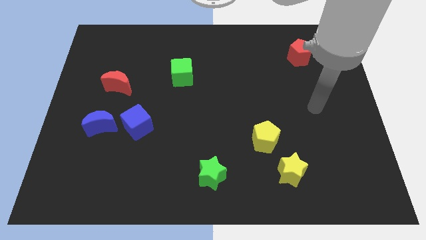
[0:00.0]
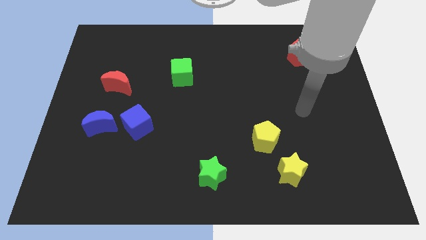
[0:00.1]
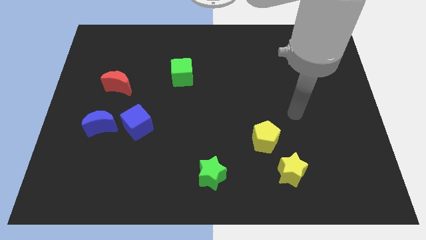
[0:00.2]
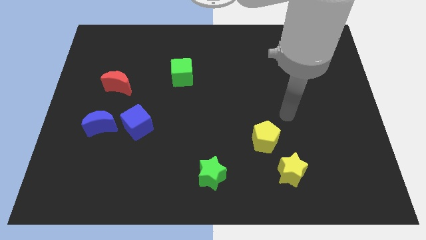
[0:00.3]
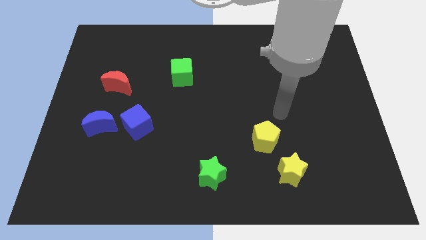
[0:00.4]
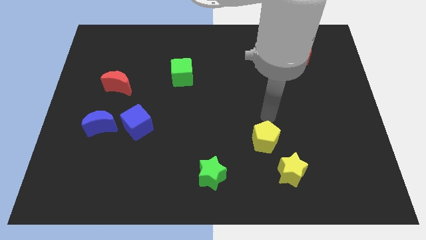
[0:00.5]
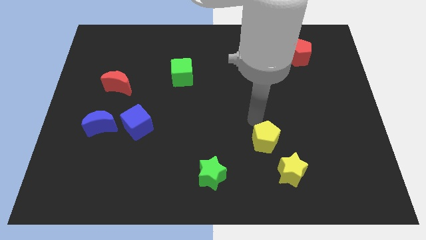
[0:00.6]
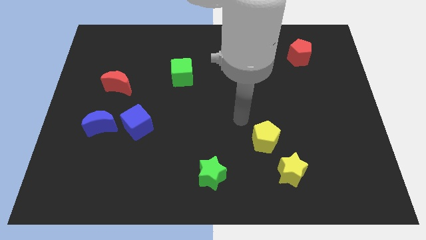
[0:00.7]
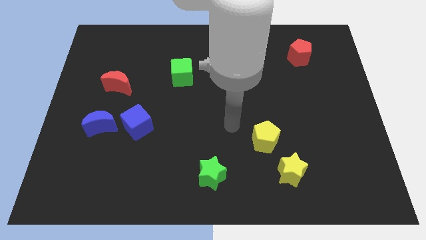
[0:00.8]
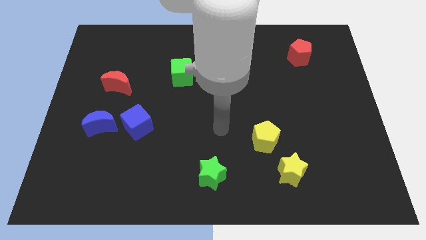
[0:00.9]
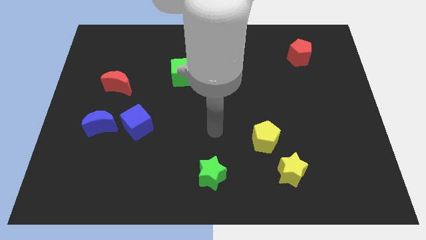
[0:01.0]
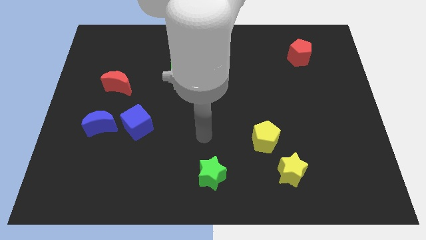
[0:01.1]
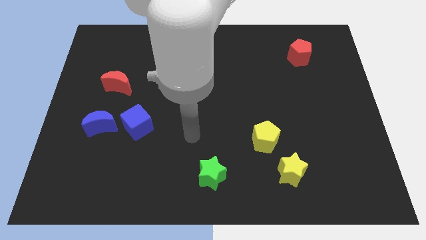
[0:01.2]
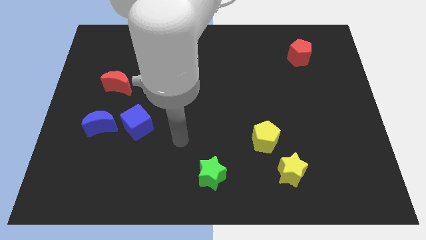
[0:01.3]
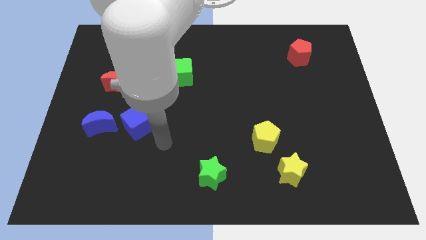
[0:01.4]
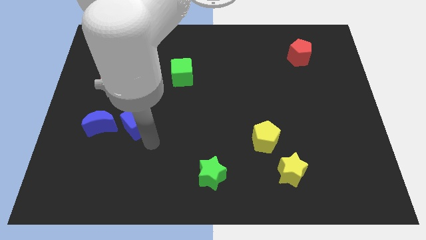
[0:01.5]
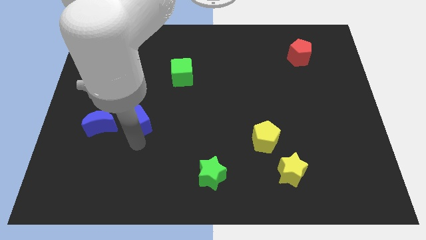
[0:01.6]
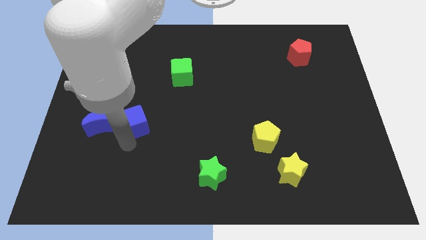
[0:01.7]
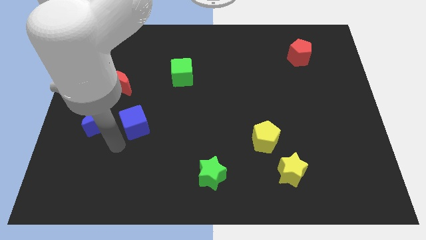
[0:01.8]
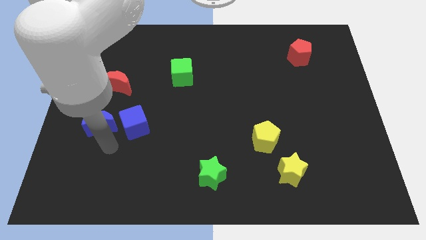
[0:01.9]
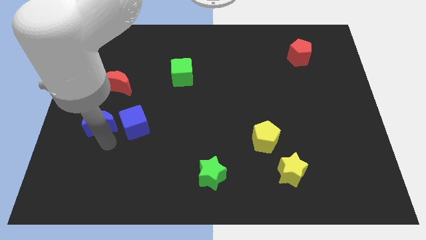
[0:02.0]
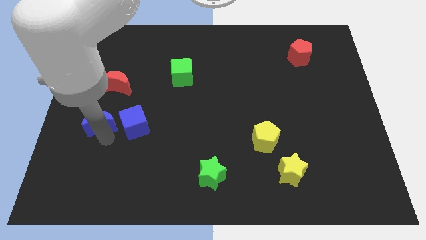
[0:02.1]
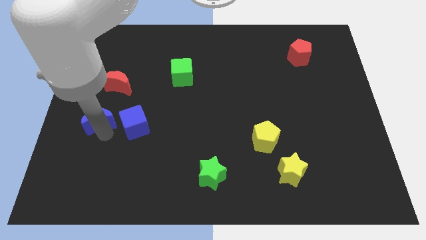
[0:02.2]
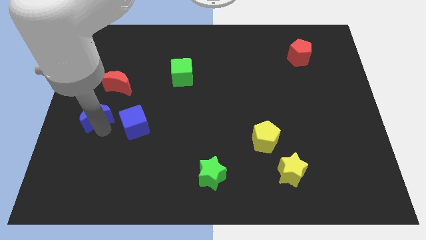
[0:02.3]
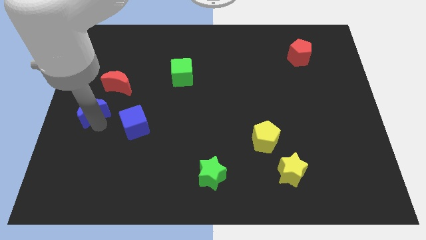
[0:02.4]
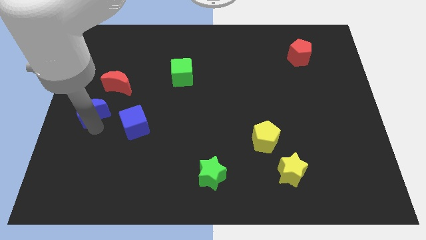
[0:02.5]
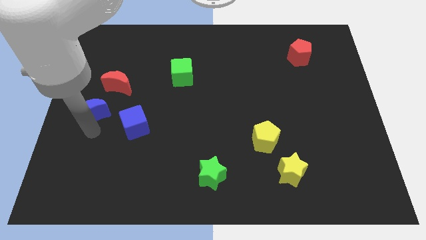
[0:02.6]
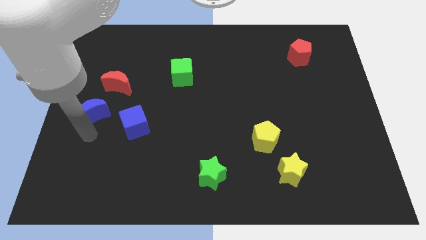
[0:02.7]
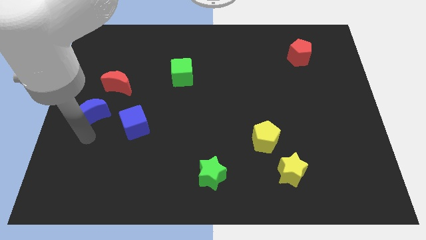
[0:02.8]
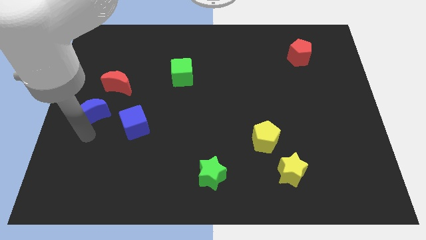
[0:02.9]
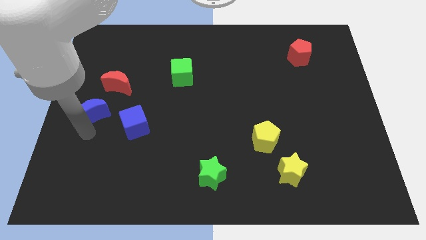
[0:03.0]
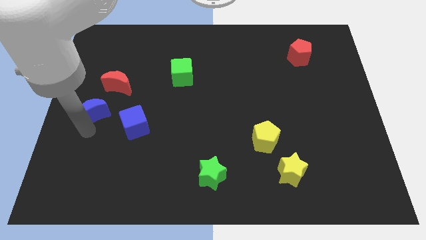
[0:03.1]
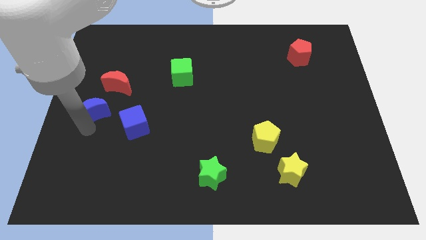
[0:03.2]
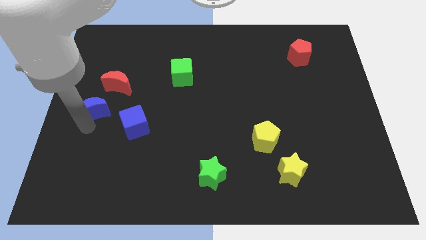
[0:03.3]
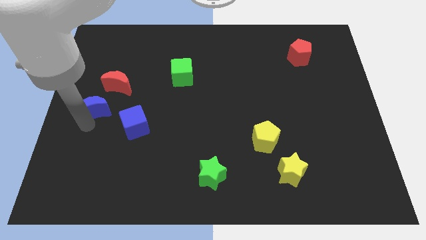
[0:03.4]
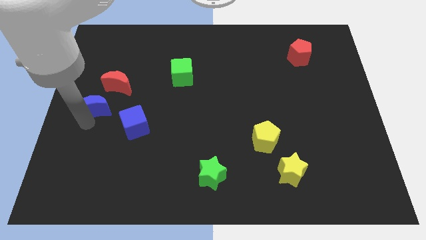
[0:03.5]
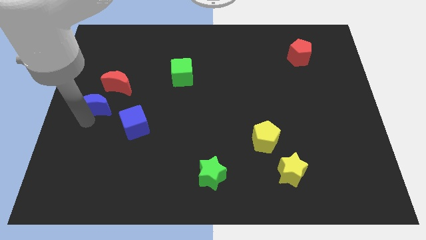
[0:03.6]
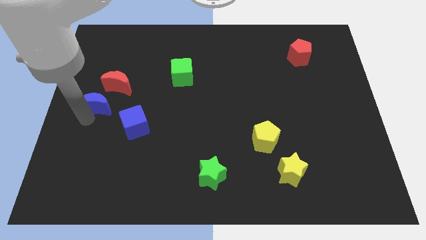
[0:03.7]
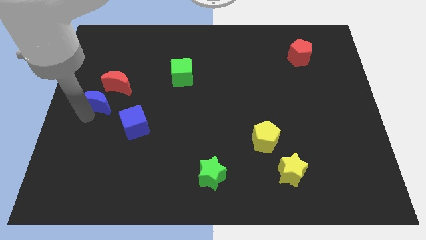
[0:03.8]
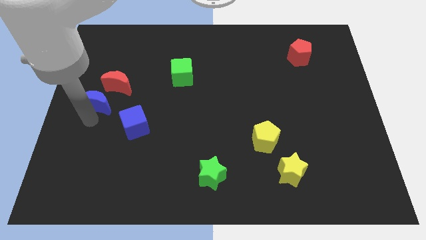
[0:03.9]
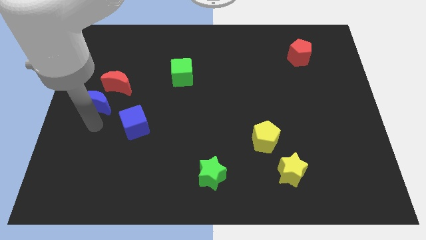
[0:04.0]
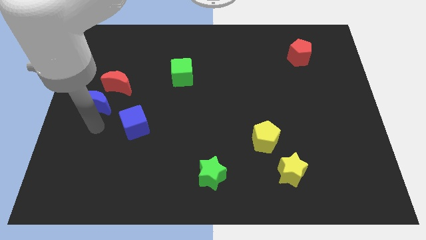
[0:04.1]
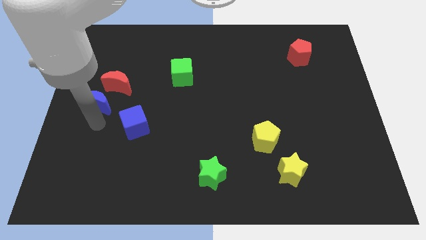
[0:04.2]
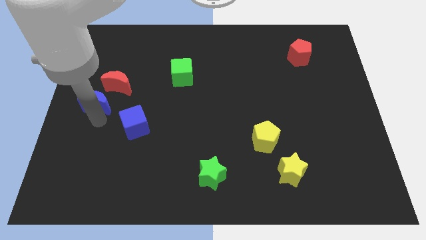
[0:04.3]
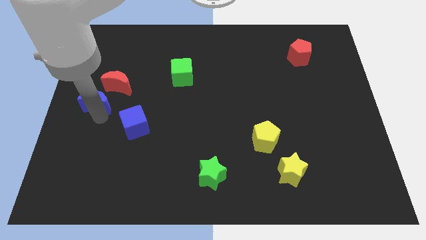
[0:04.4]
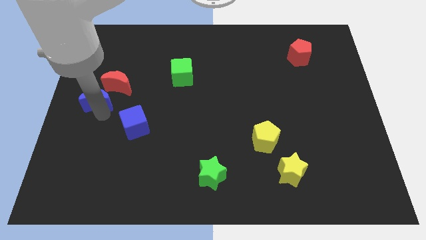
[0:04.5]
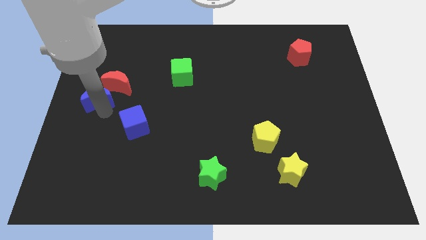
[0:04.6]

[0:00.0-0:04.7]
push the blue moon slightly up

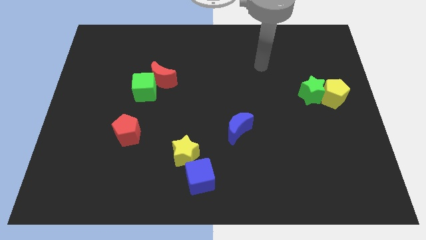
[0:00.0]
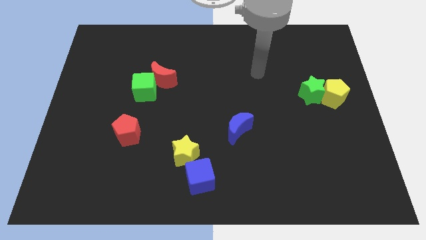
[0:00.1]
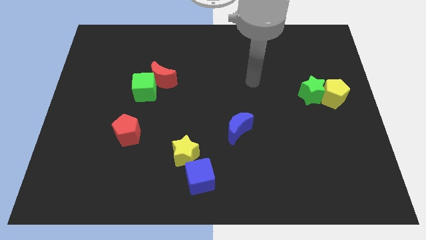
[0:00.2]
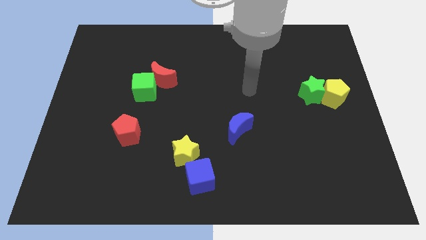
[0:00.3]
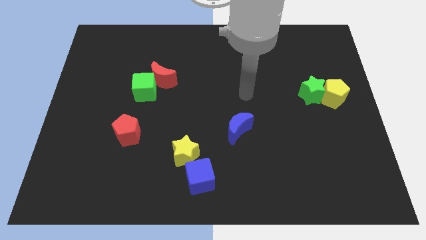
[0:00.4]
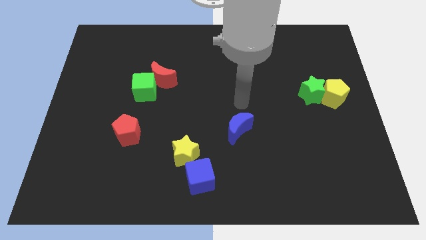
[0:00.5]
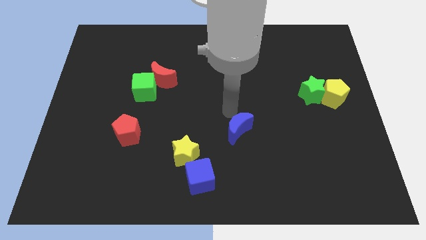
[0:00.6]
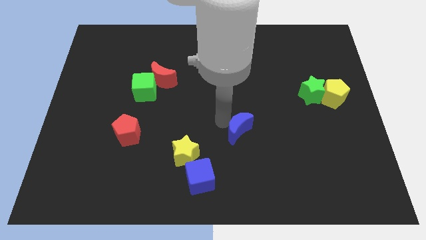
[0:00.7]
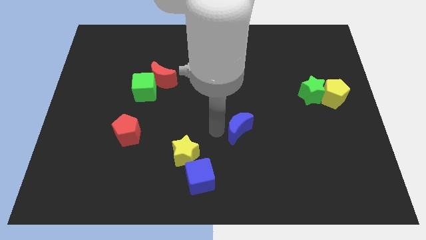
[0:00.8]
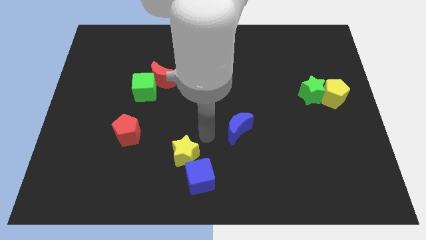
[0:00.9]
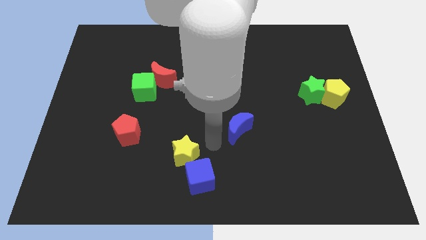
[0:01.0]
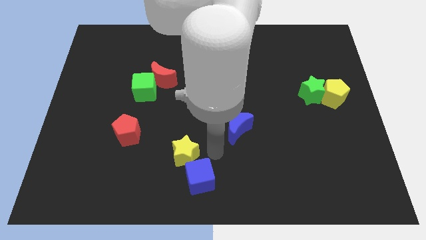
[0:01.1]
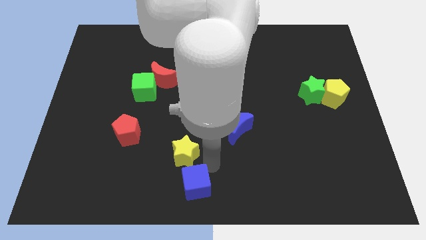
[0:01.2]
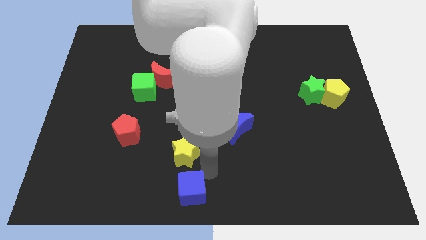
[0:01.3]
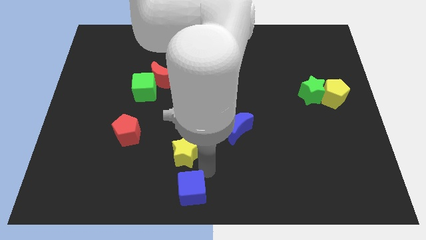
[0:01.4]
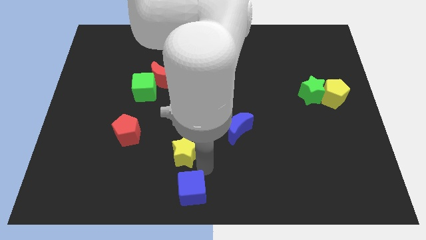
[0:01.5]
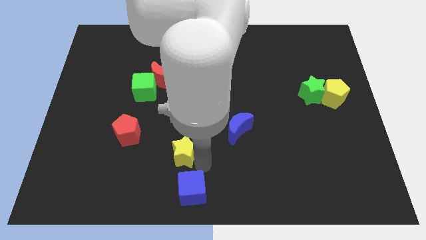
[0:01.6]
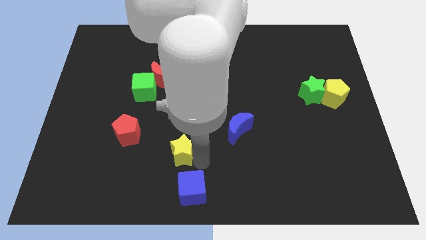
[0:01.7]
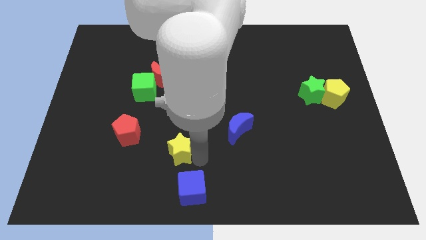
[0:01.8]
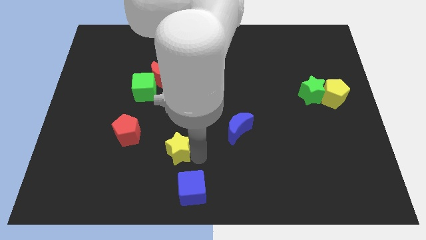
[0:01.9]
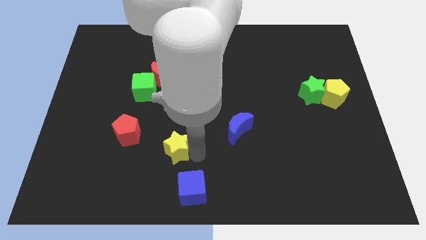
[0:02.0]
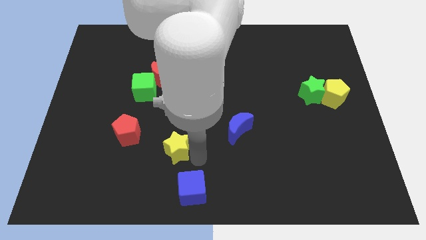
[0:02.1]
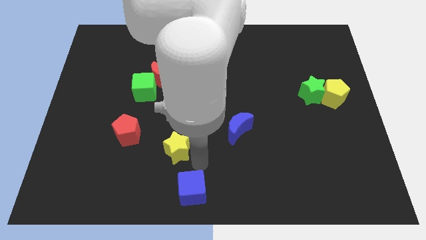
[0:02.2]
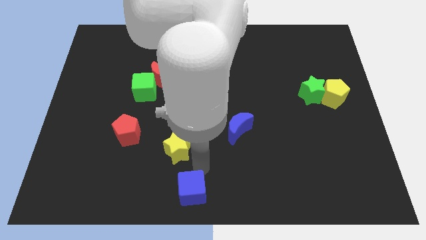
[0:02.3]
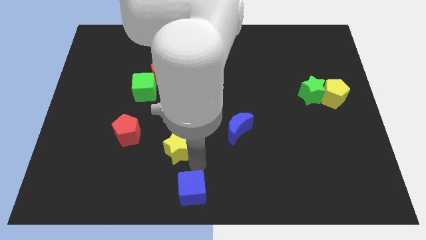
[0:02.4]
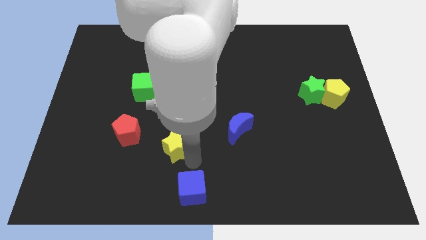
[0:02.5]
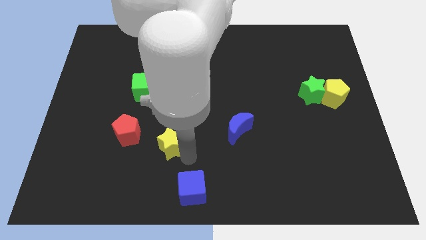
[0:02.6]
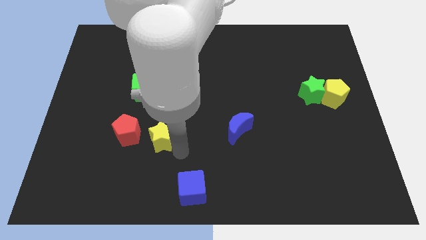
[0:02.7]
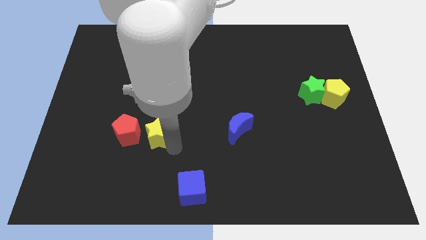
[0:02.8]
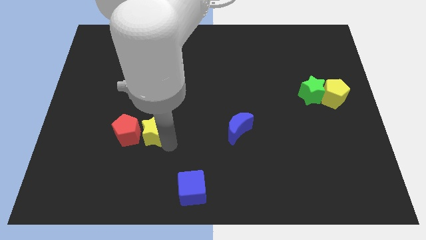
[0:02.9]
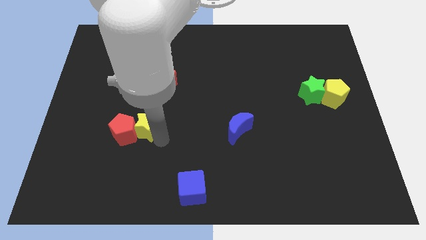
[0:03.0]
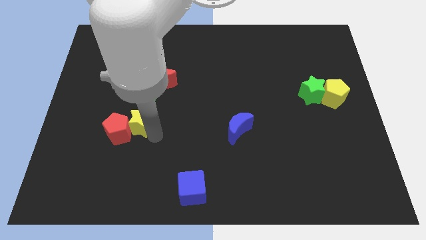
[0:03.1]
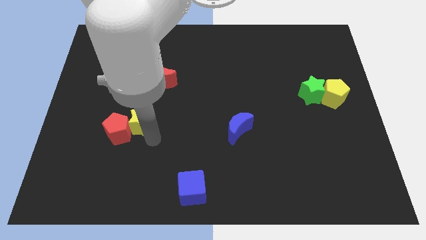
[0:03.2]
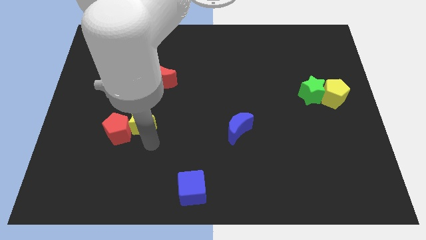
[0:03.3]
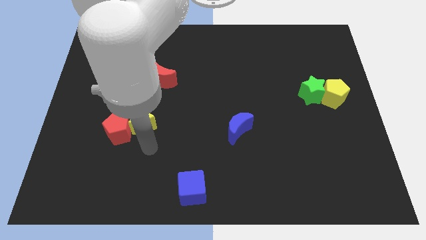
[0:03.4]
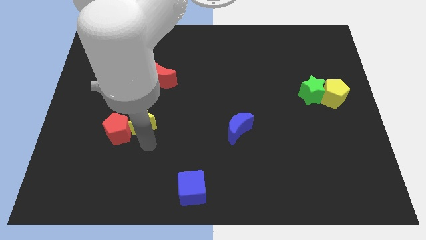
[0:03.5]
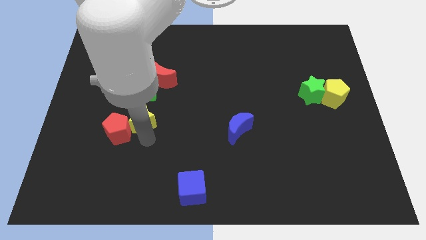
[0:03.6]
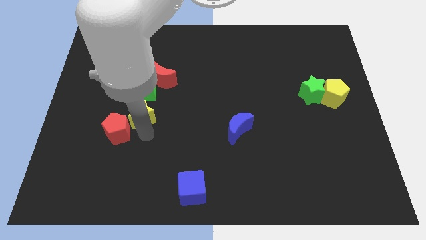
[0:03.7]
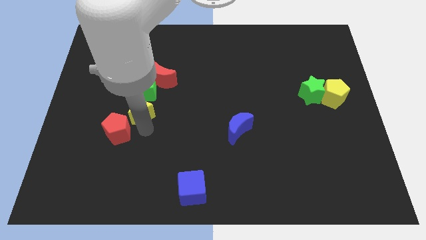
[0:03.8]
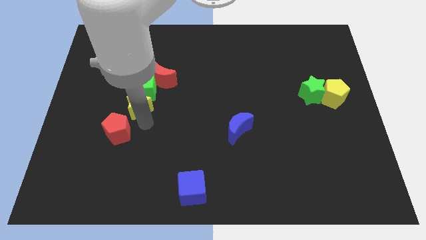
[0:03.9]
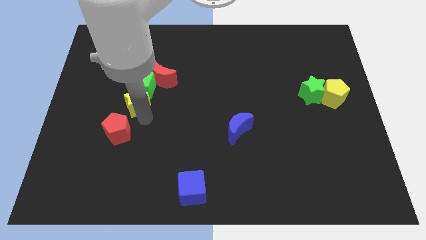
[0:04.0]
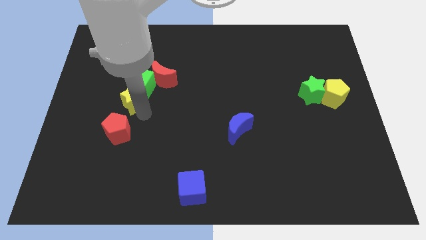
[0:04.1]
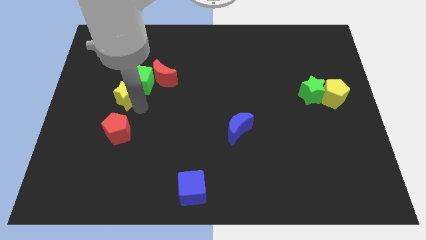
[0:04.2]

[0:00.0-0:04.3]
slide the yellow star upwards and left
